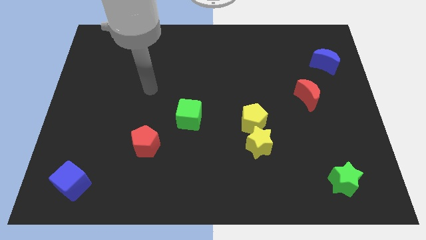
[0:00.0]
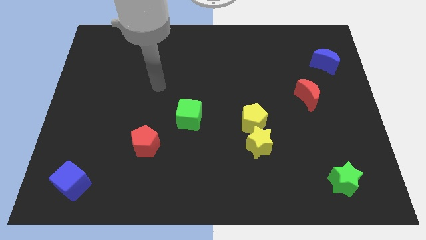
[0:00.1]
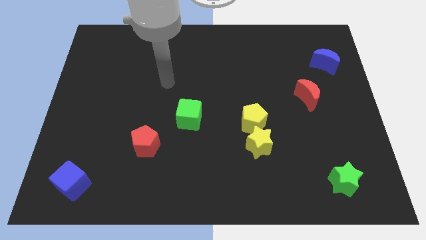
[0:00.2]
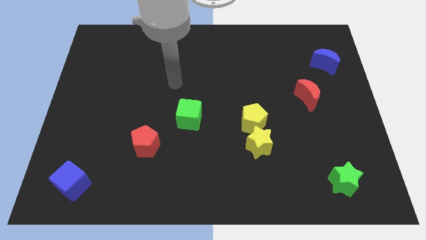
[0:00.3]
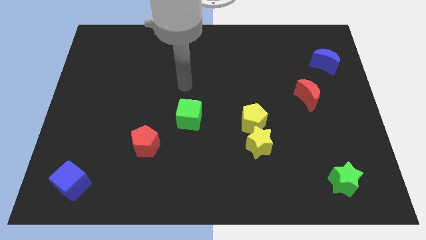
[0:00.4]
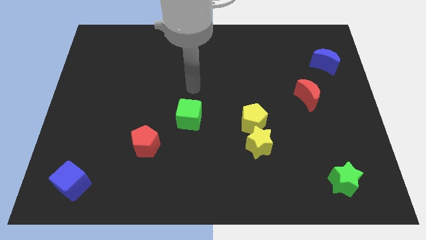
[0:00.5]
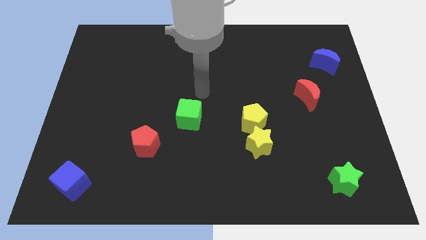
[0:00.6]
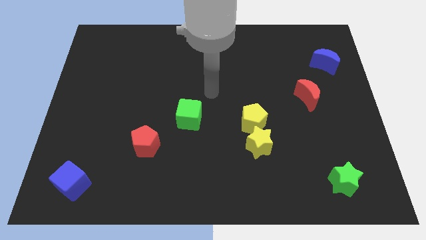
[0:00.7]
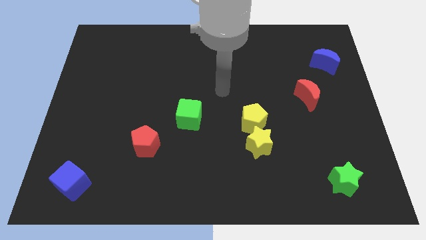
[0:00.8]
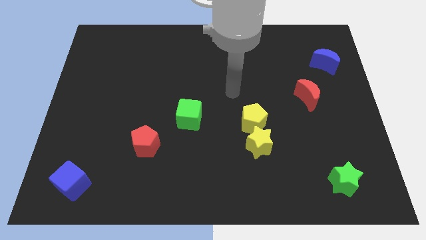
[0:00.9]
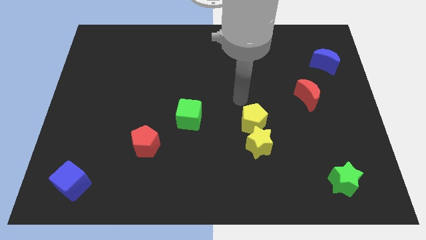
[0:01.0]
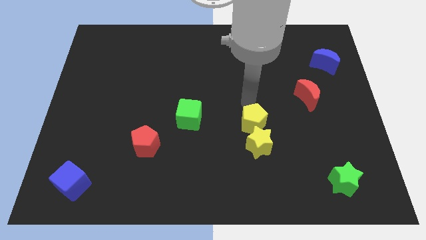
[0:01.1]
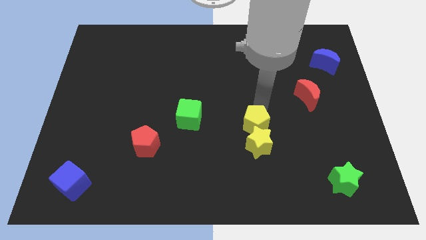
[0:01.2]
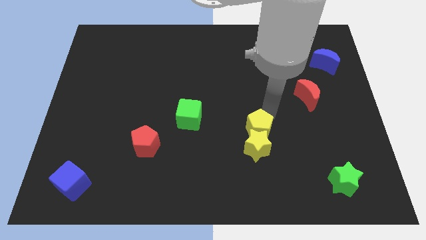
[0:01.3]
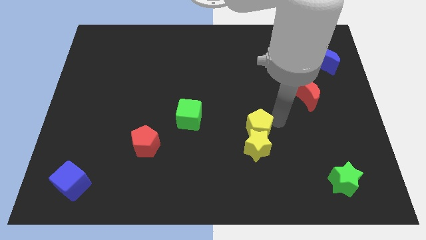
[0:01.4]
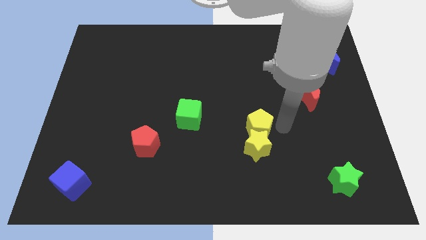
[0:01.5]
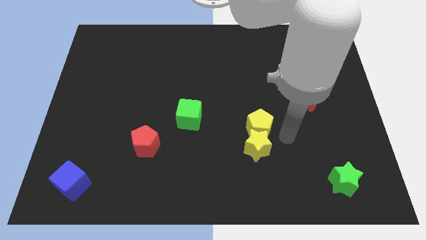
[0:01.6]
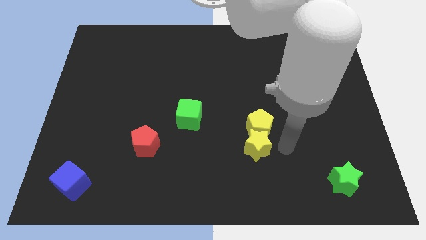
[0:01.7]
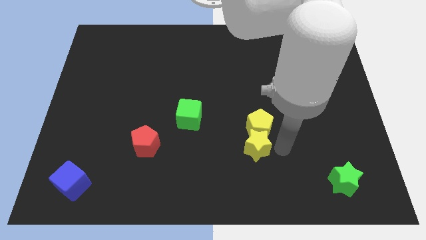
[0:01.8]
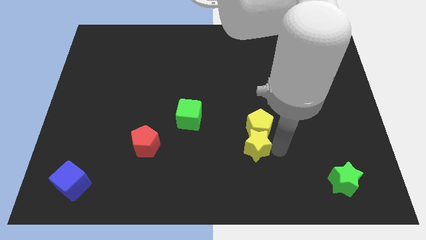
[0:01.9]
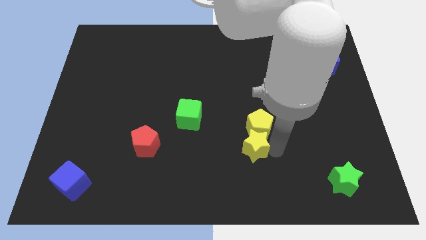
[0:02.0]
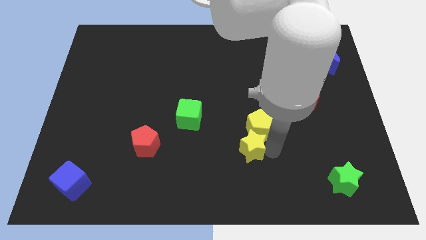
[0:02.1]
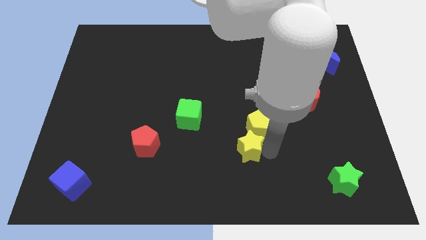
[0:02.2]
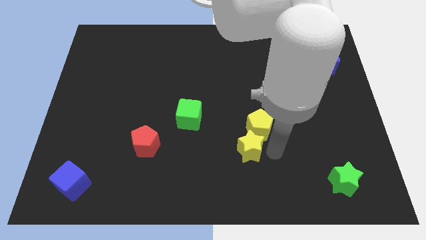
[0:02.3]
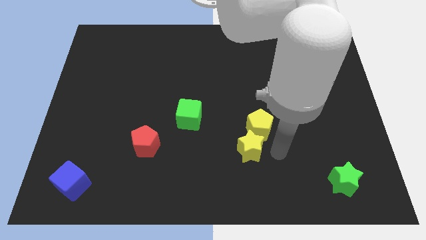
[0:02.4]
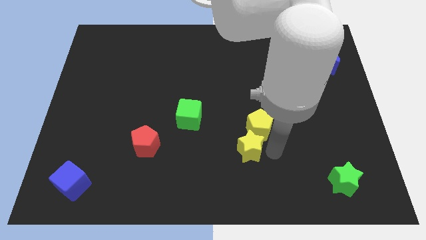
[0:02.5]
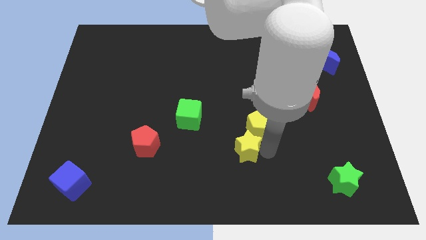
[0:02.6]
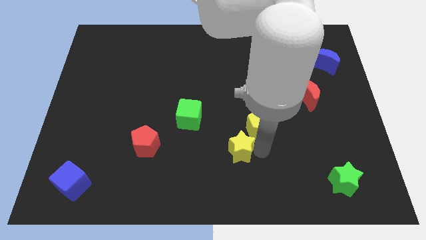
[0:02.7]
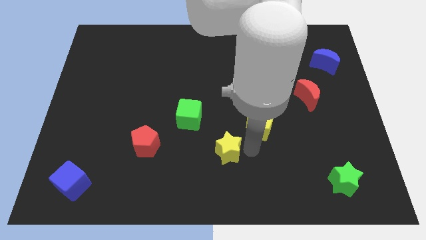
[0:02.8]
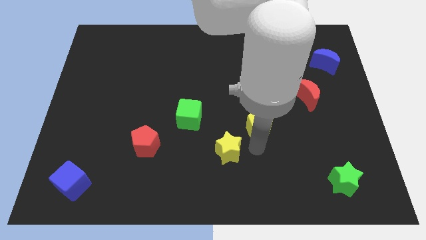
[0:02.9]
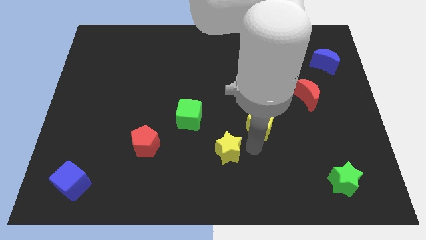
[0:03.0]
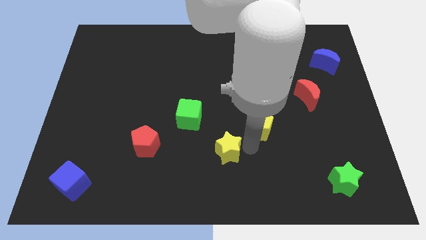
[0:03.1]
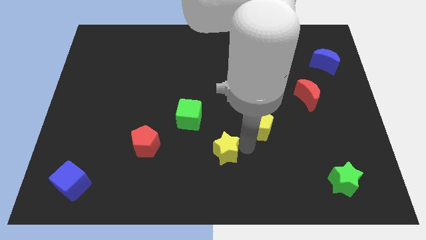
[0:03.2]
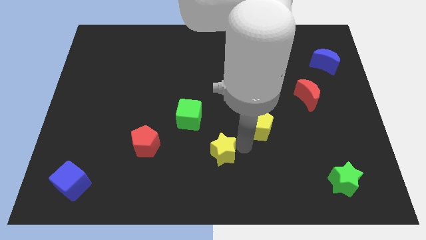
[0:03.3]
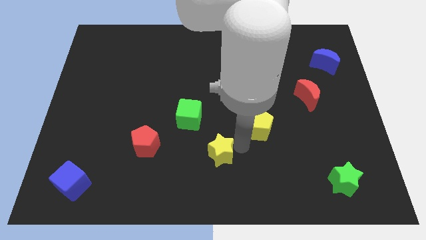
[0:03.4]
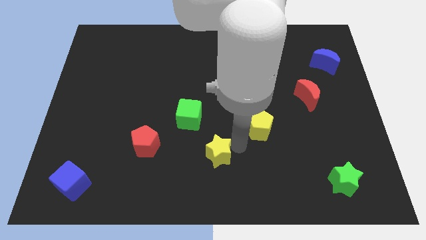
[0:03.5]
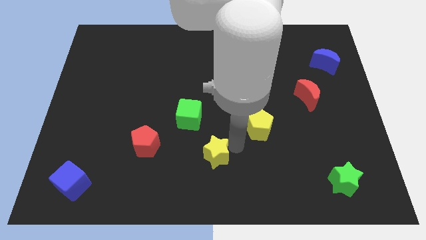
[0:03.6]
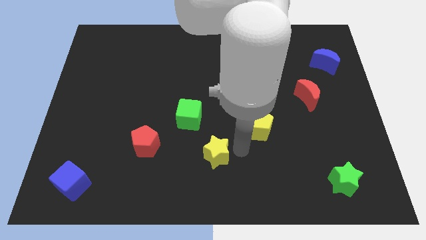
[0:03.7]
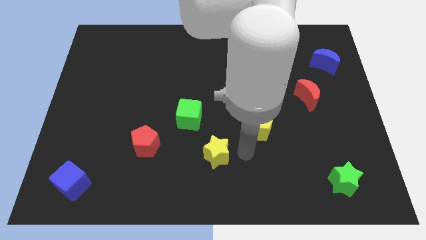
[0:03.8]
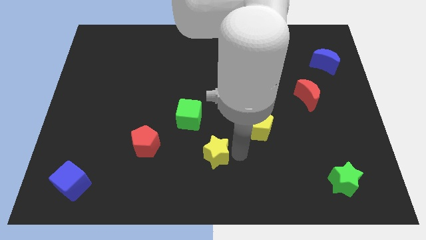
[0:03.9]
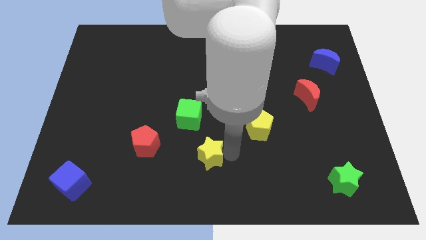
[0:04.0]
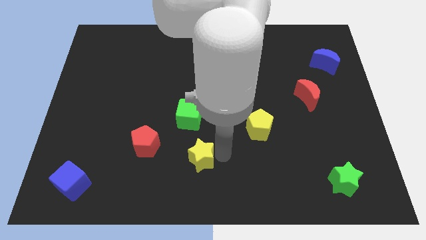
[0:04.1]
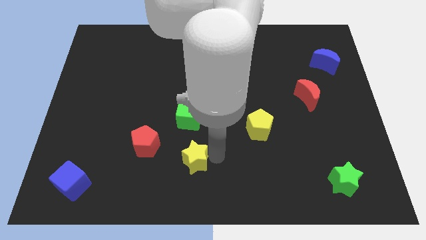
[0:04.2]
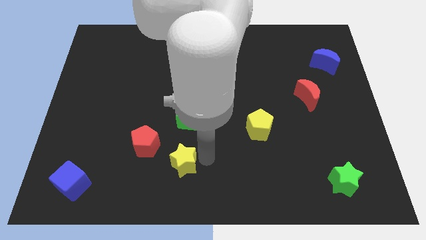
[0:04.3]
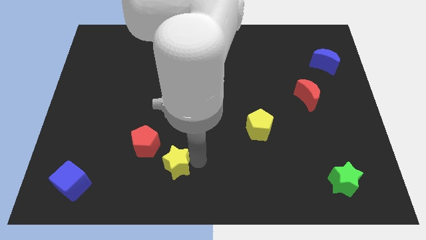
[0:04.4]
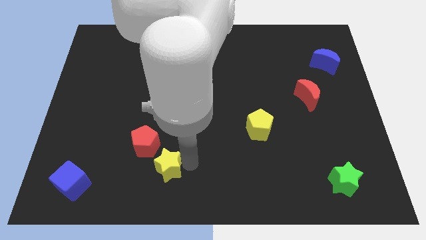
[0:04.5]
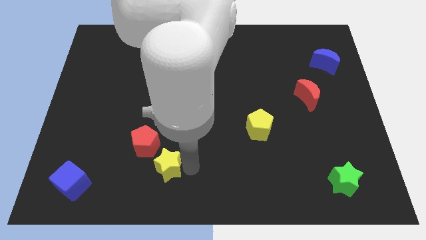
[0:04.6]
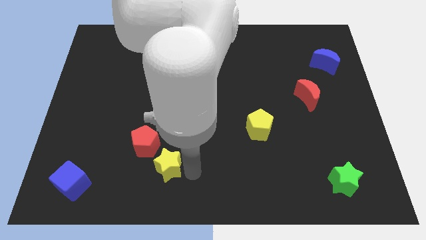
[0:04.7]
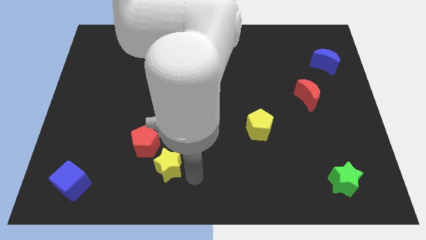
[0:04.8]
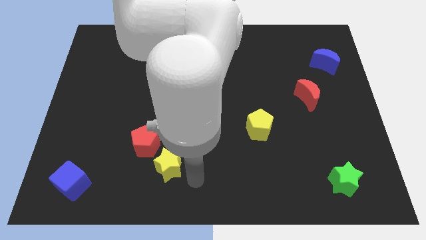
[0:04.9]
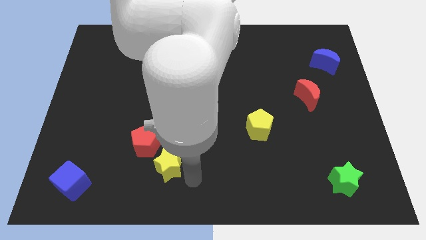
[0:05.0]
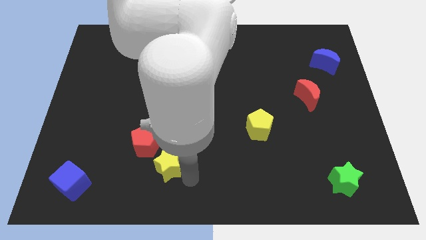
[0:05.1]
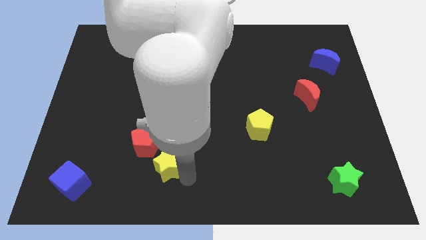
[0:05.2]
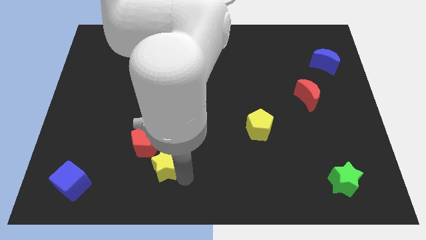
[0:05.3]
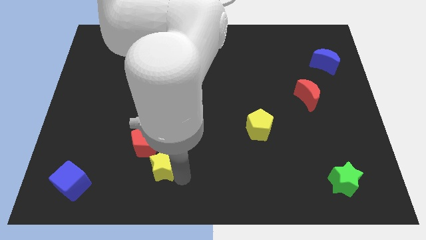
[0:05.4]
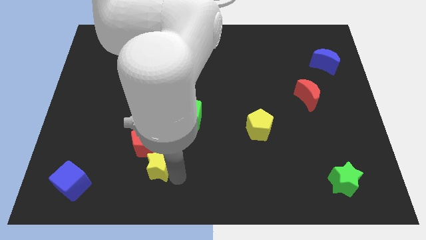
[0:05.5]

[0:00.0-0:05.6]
move the yellow star to the left

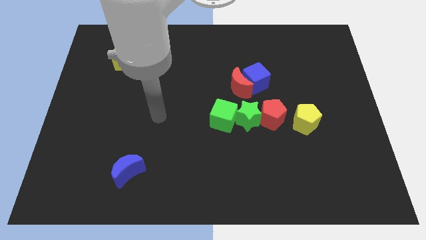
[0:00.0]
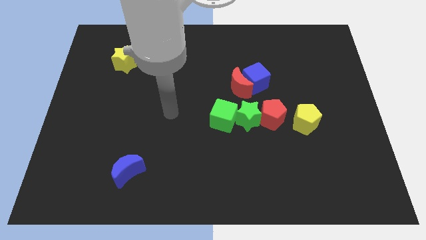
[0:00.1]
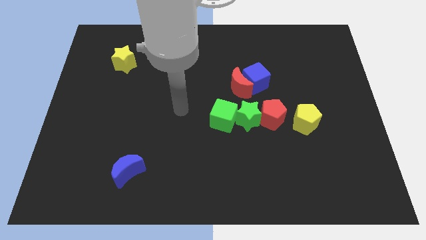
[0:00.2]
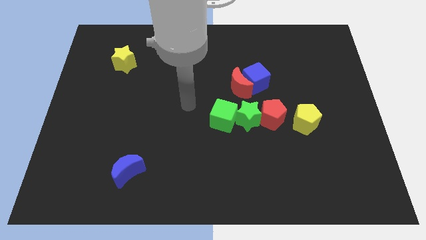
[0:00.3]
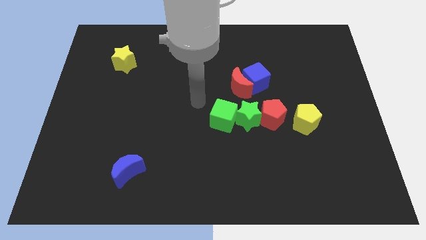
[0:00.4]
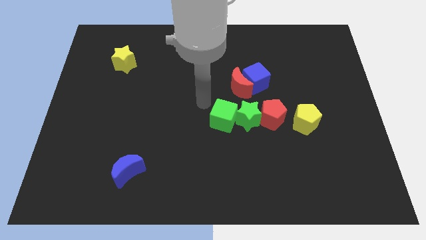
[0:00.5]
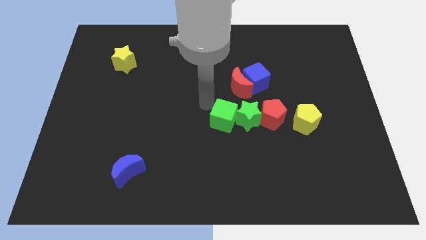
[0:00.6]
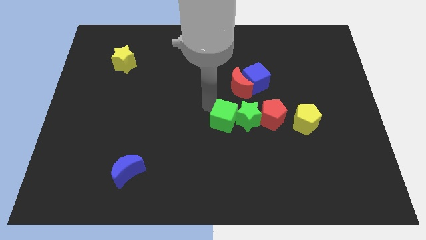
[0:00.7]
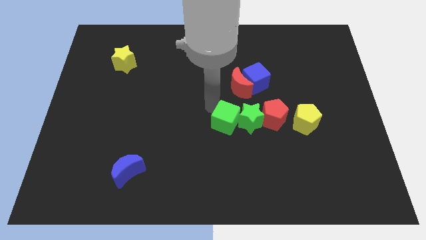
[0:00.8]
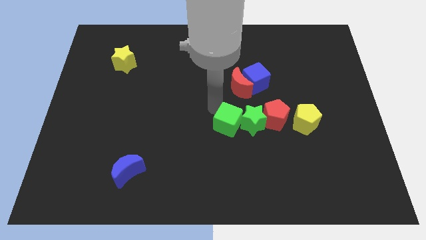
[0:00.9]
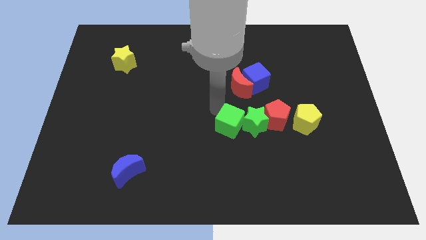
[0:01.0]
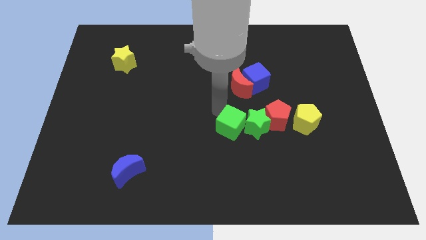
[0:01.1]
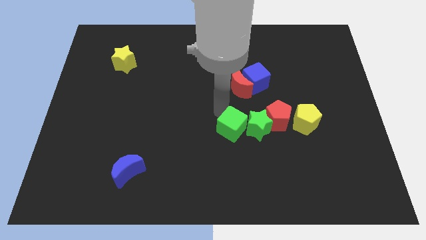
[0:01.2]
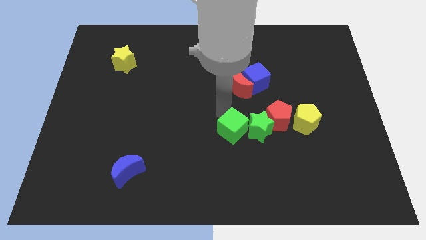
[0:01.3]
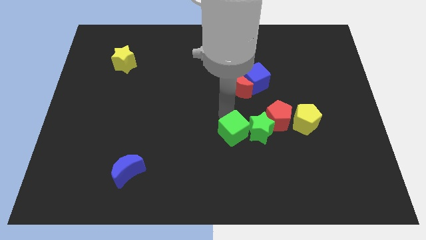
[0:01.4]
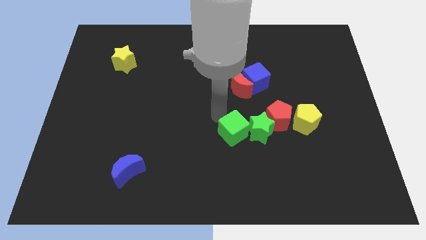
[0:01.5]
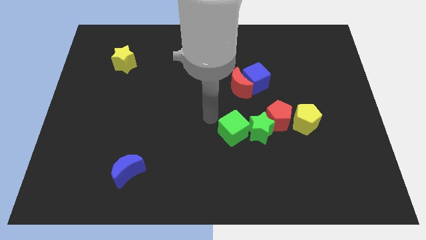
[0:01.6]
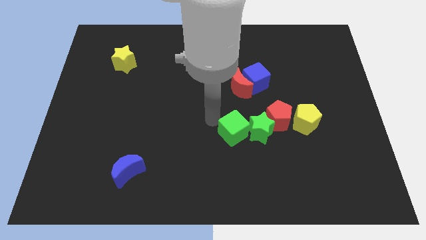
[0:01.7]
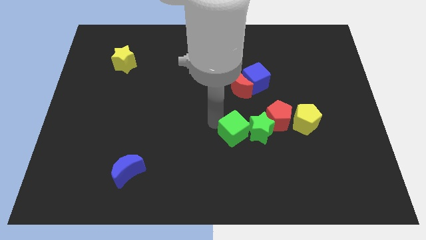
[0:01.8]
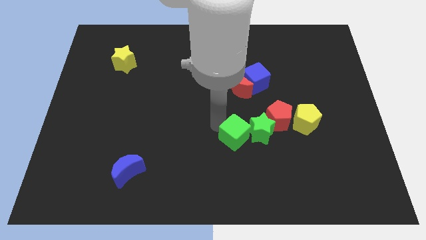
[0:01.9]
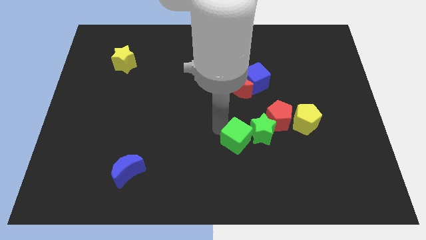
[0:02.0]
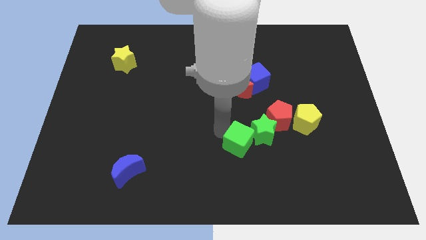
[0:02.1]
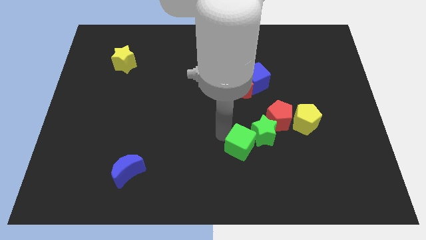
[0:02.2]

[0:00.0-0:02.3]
slightly move the green cube down and then right
